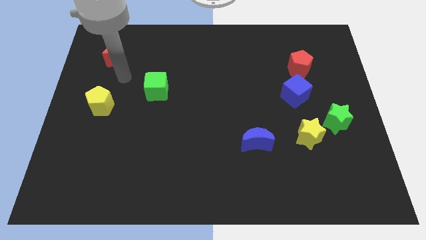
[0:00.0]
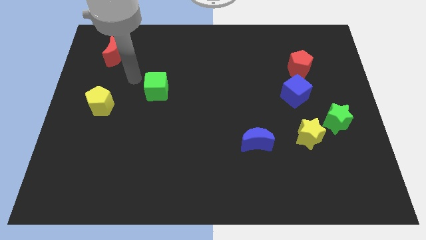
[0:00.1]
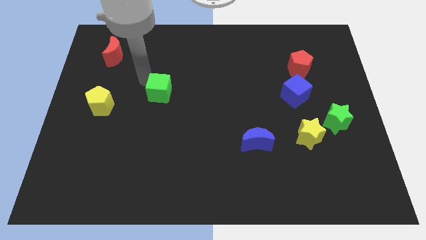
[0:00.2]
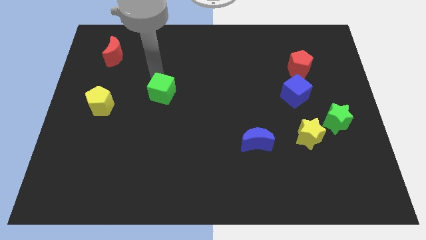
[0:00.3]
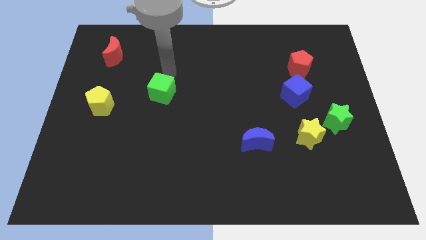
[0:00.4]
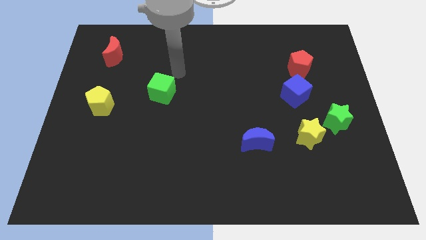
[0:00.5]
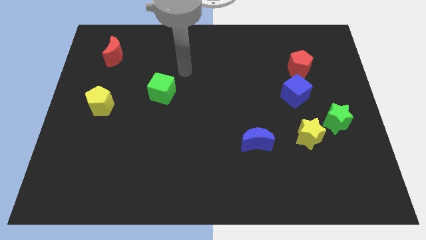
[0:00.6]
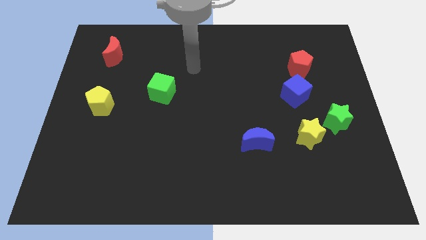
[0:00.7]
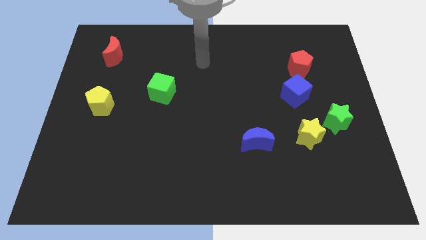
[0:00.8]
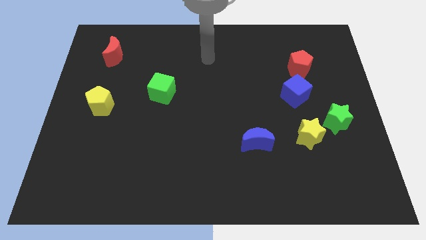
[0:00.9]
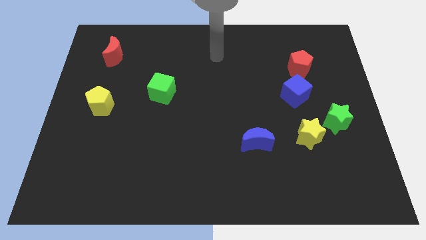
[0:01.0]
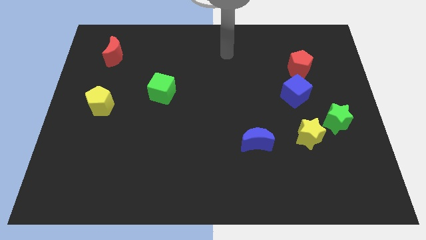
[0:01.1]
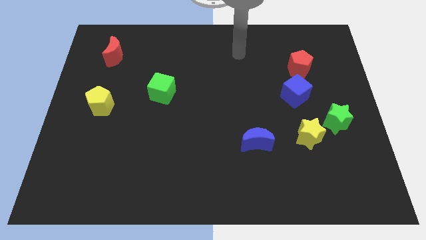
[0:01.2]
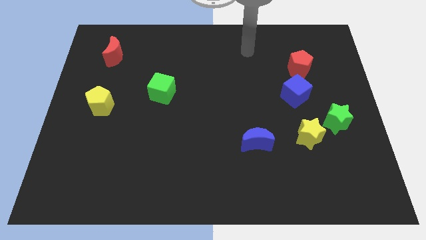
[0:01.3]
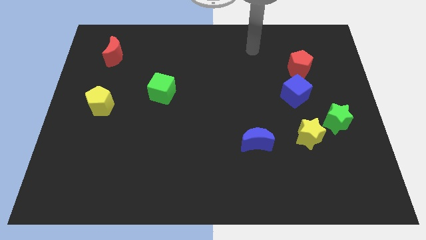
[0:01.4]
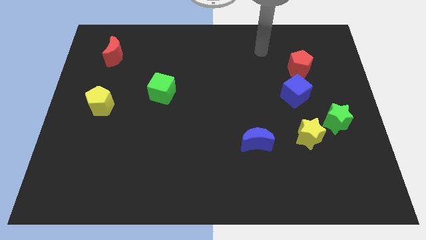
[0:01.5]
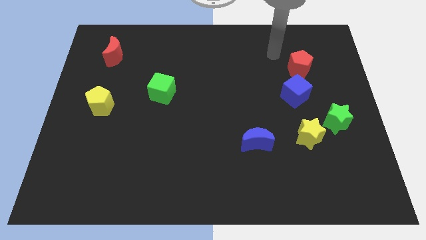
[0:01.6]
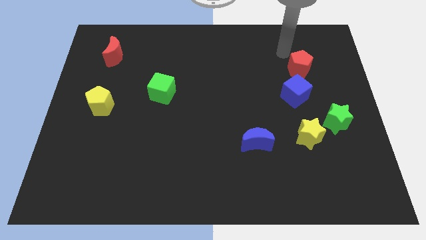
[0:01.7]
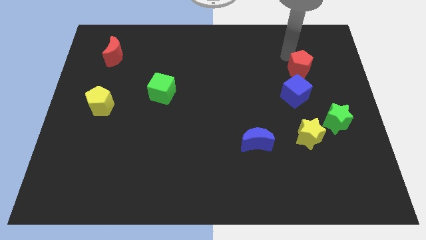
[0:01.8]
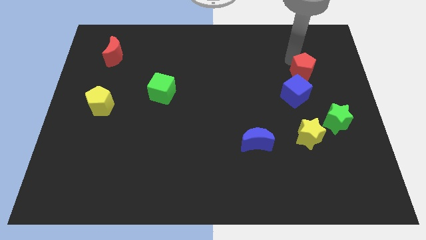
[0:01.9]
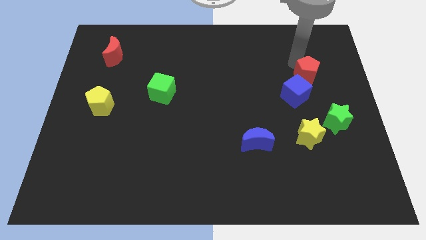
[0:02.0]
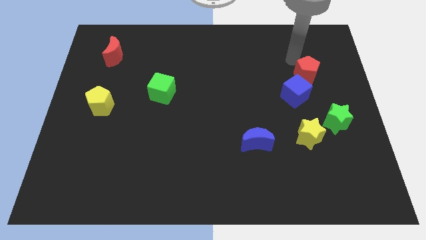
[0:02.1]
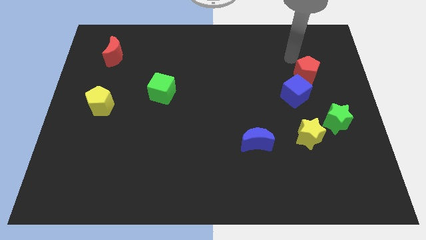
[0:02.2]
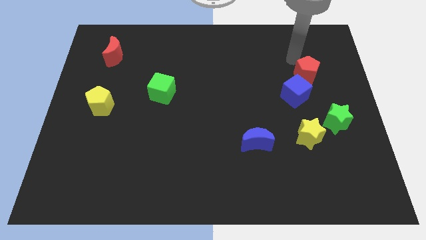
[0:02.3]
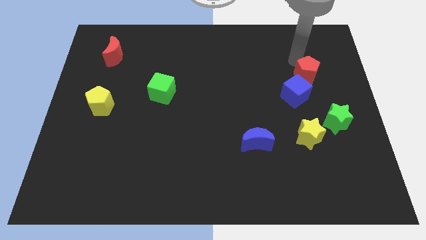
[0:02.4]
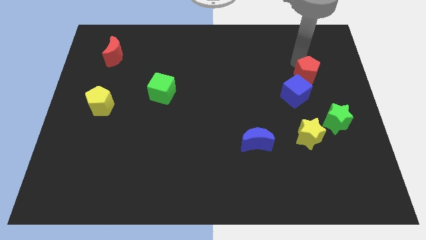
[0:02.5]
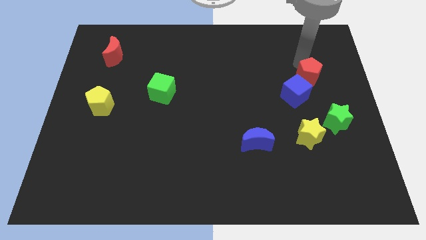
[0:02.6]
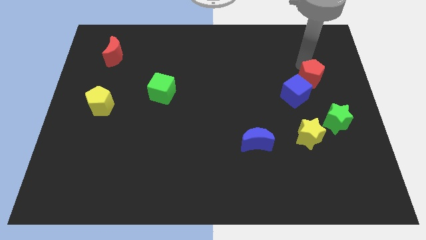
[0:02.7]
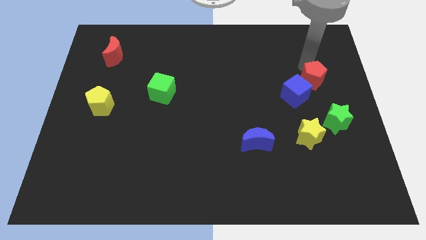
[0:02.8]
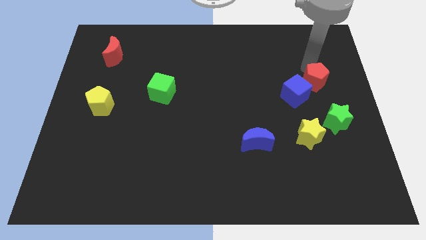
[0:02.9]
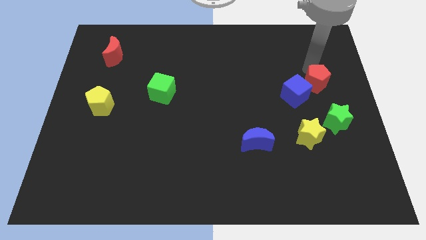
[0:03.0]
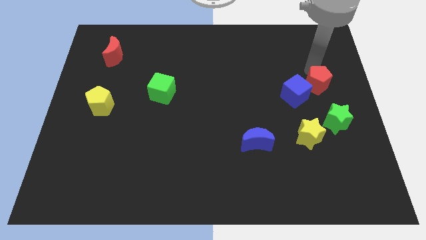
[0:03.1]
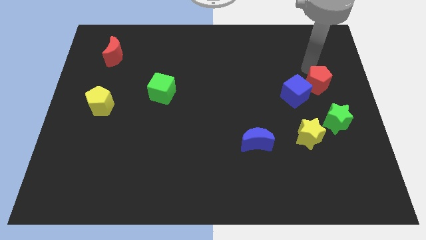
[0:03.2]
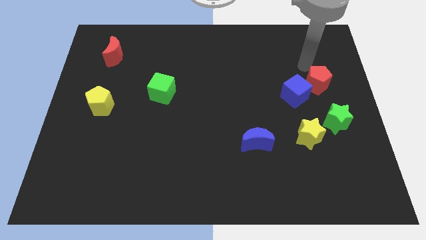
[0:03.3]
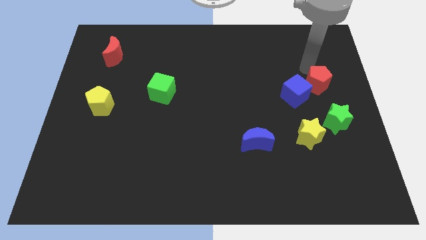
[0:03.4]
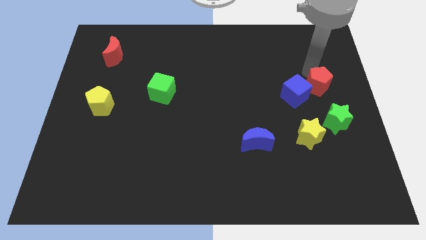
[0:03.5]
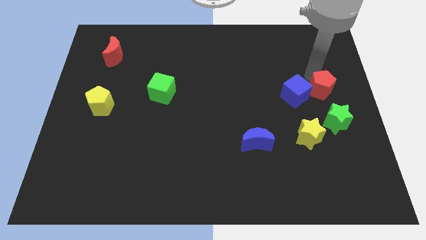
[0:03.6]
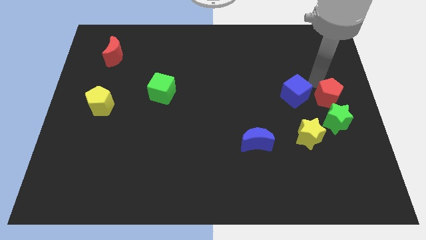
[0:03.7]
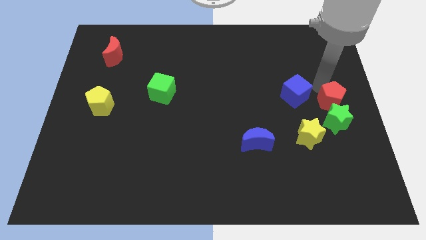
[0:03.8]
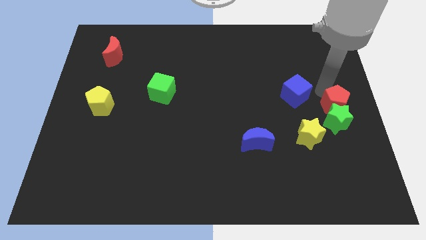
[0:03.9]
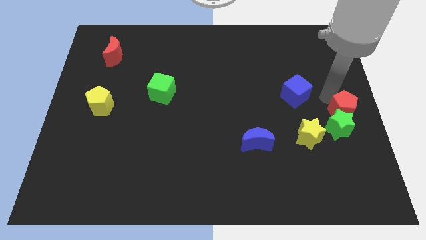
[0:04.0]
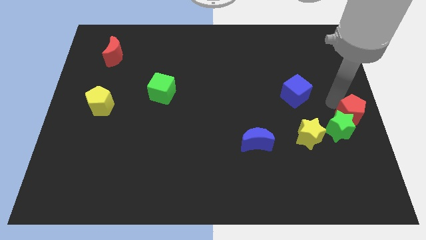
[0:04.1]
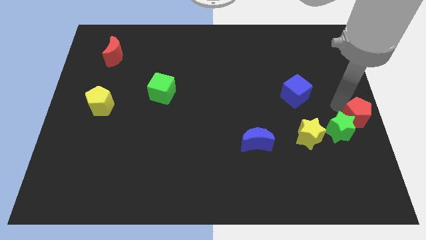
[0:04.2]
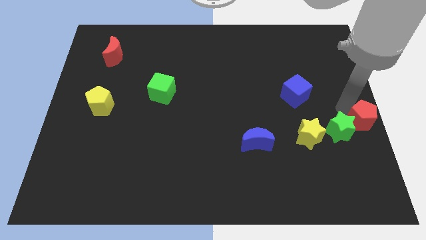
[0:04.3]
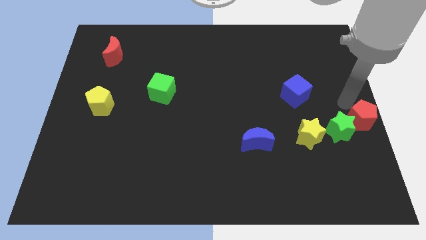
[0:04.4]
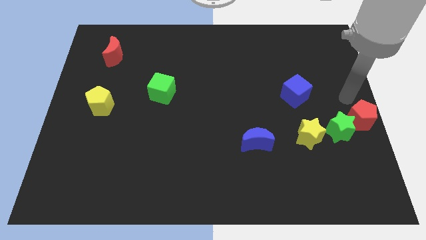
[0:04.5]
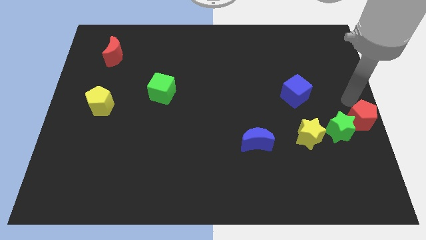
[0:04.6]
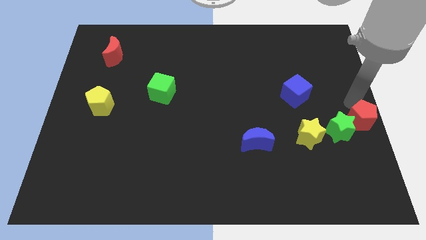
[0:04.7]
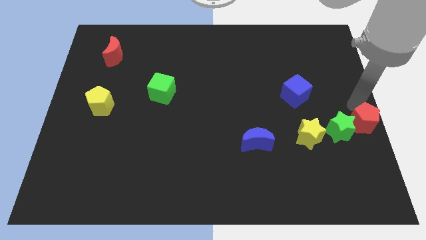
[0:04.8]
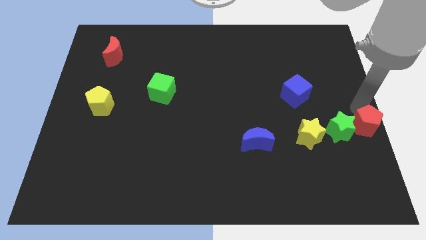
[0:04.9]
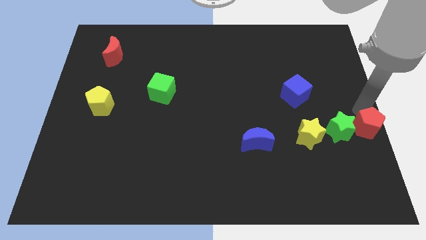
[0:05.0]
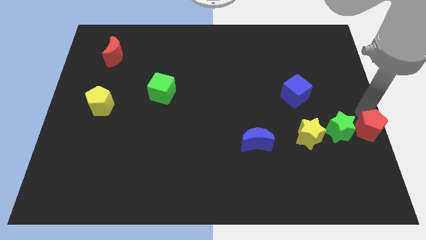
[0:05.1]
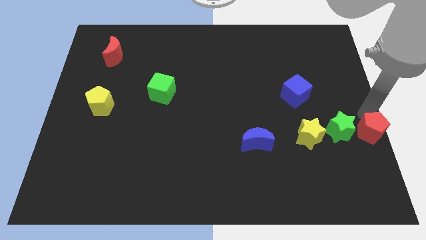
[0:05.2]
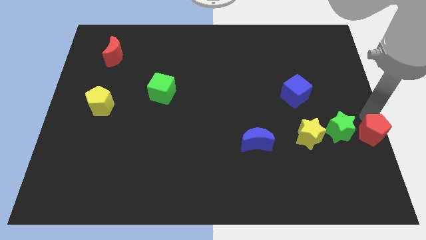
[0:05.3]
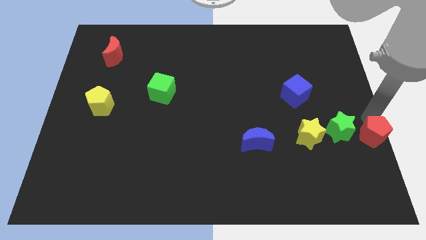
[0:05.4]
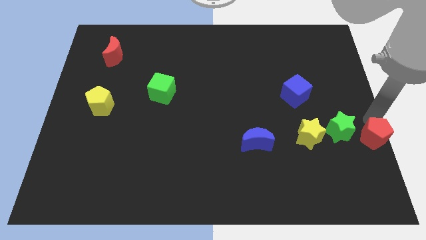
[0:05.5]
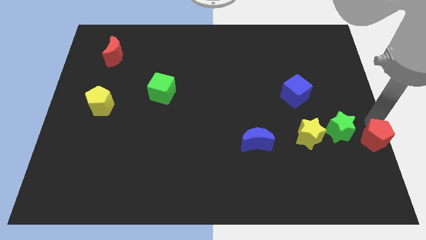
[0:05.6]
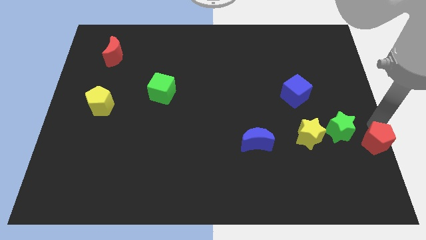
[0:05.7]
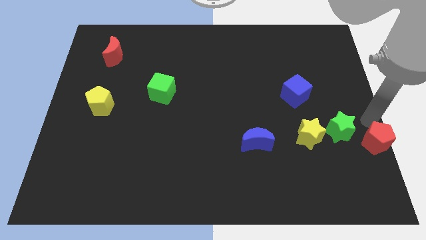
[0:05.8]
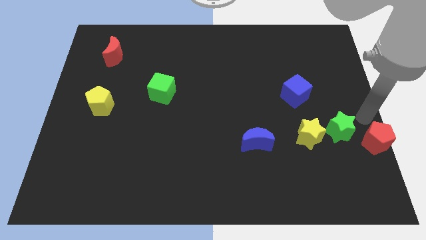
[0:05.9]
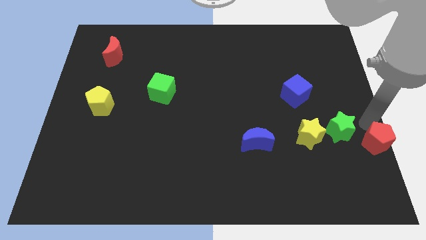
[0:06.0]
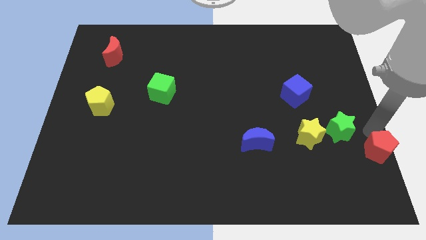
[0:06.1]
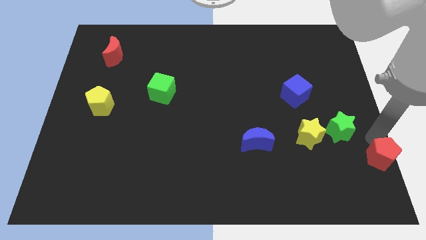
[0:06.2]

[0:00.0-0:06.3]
slide the red pentagon to the lower right corner
